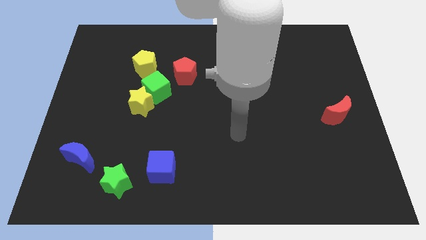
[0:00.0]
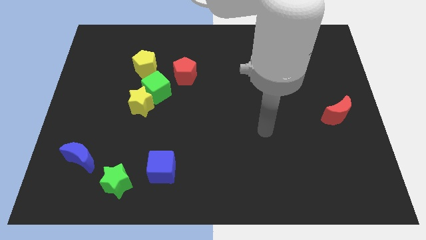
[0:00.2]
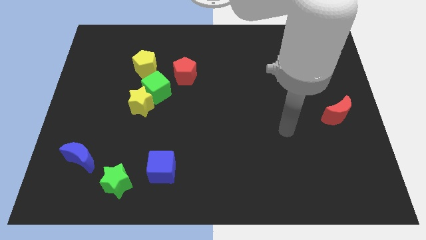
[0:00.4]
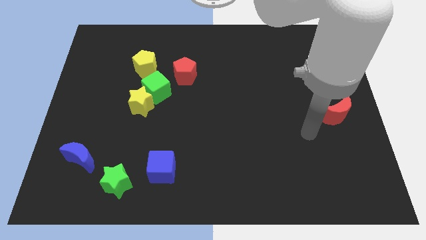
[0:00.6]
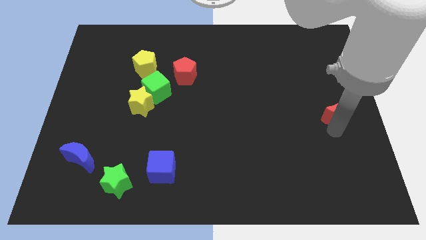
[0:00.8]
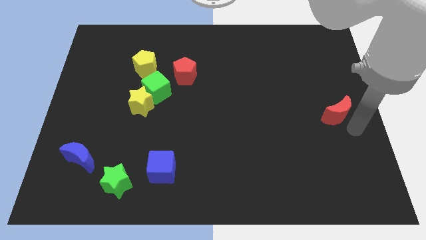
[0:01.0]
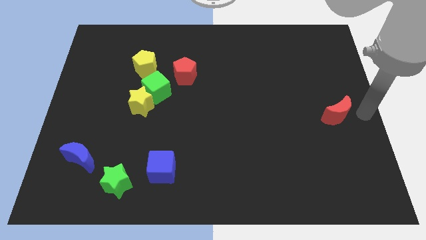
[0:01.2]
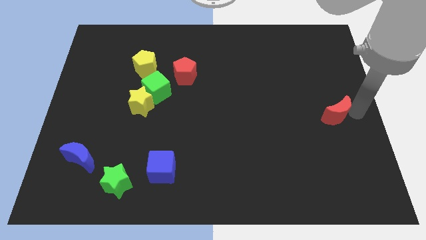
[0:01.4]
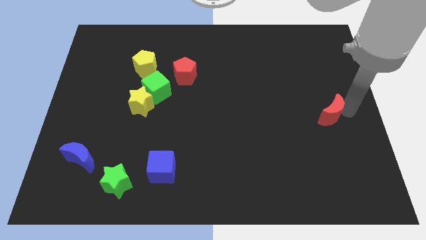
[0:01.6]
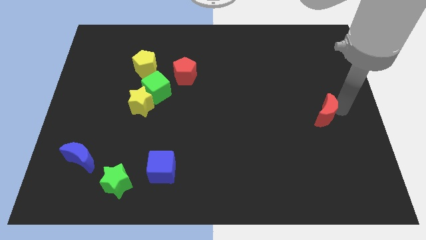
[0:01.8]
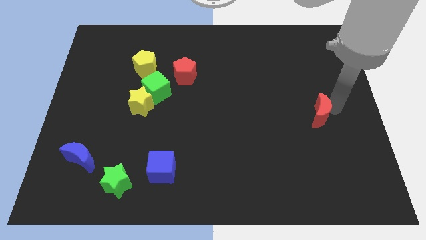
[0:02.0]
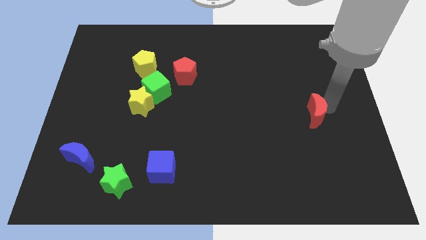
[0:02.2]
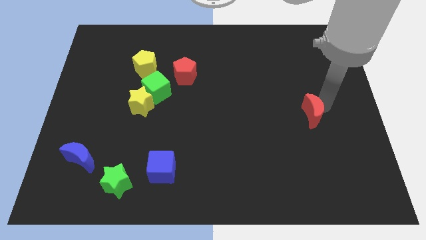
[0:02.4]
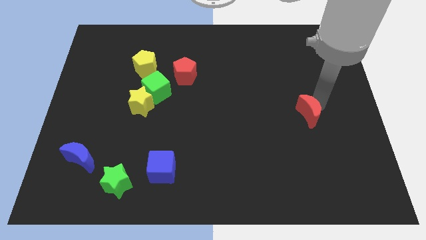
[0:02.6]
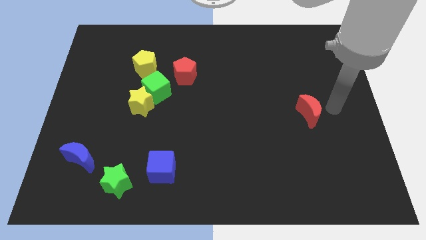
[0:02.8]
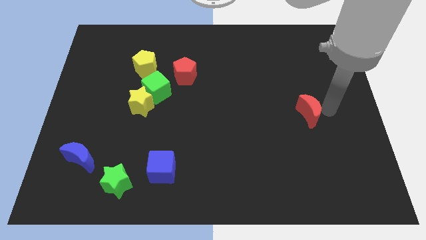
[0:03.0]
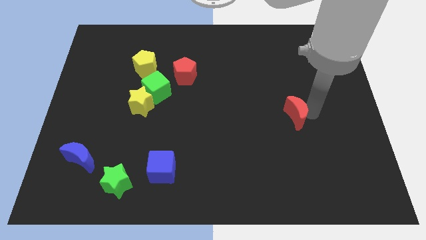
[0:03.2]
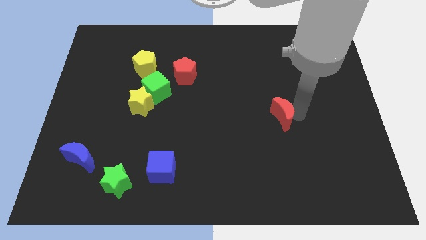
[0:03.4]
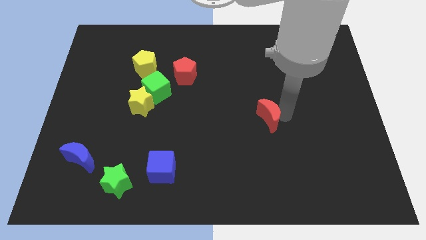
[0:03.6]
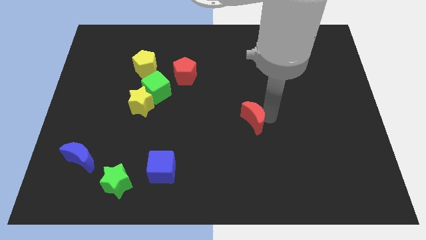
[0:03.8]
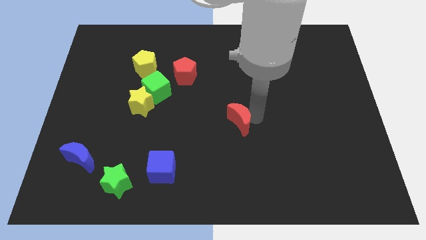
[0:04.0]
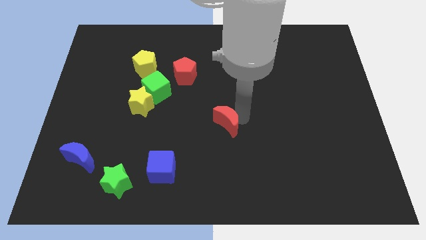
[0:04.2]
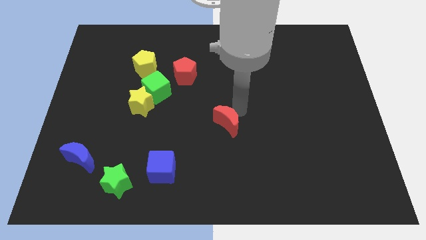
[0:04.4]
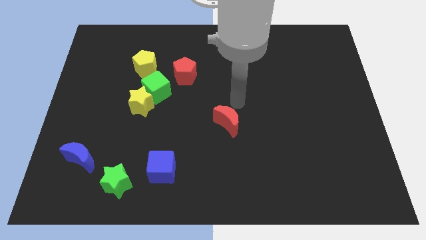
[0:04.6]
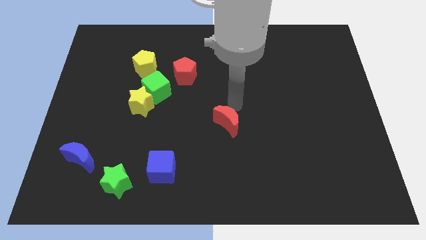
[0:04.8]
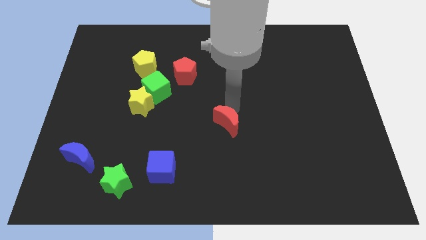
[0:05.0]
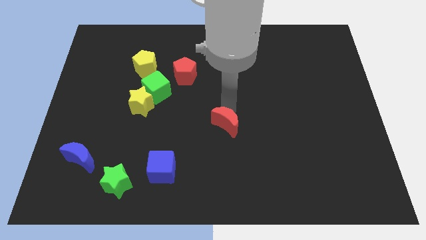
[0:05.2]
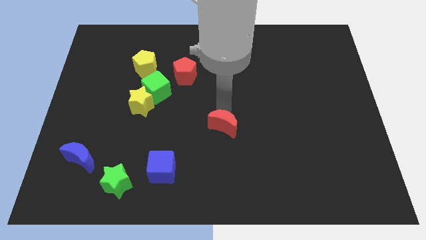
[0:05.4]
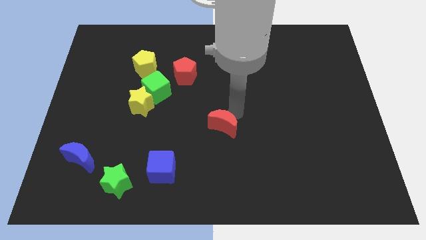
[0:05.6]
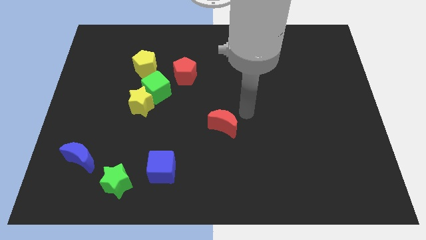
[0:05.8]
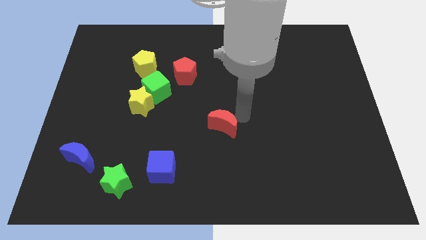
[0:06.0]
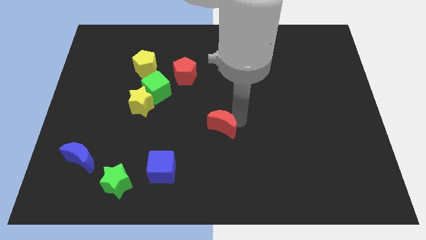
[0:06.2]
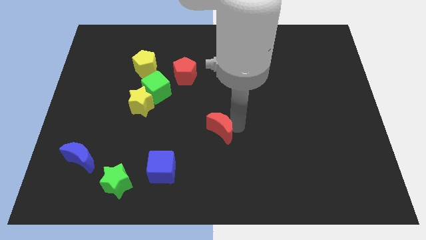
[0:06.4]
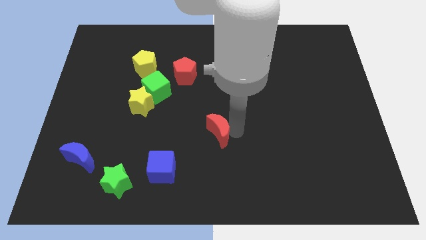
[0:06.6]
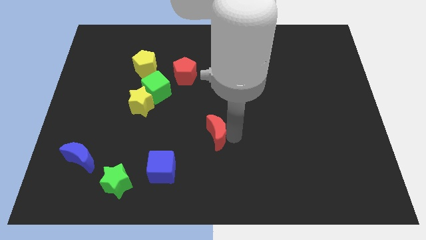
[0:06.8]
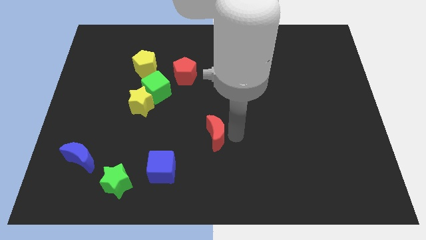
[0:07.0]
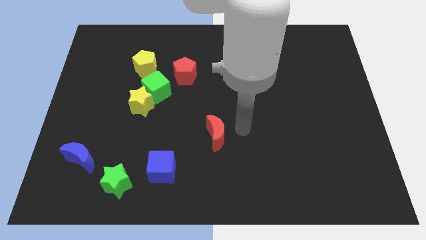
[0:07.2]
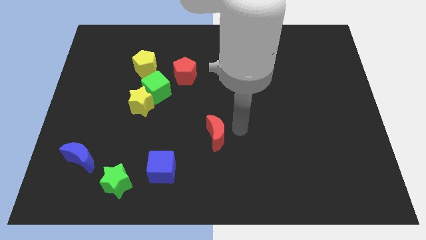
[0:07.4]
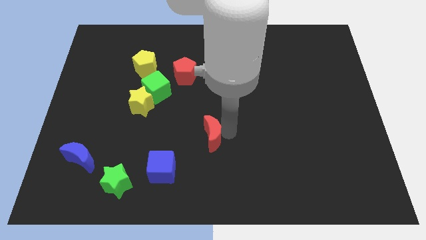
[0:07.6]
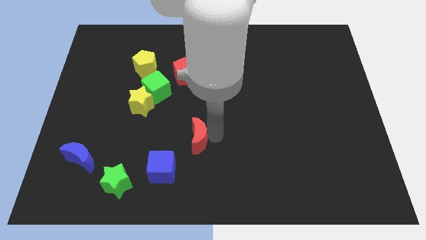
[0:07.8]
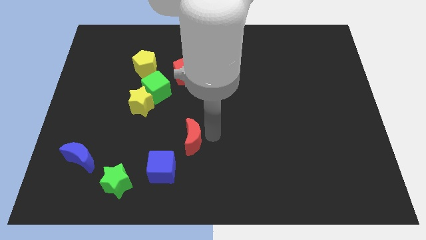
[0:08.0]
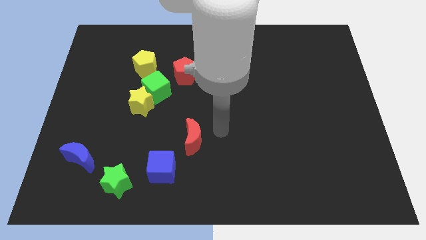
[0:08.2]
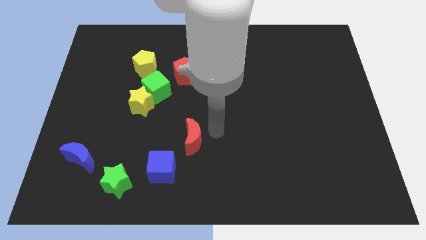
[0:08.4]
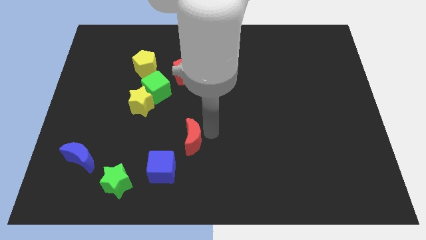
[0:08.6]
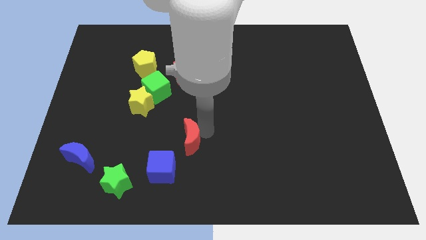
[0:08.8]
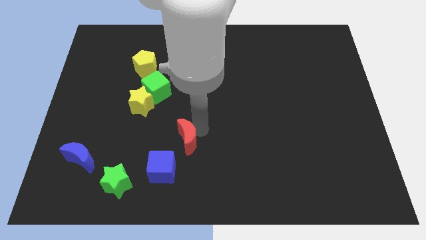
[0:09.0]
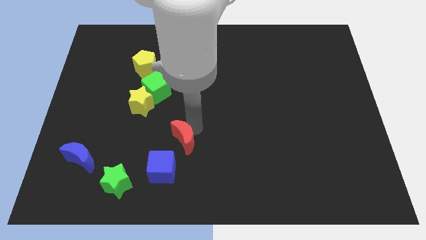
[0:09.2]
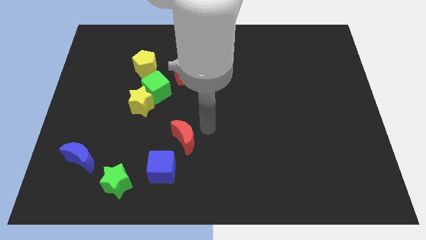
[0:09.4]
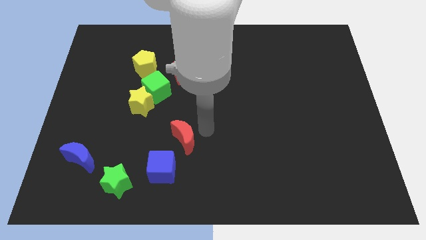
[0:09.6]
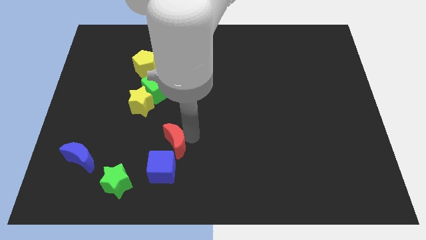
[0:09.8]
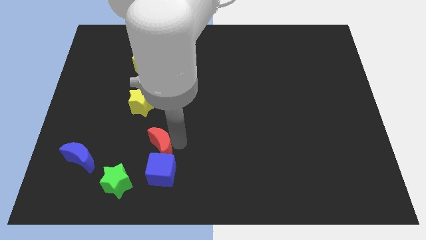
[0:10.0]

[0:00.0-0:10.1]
push the red moon diagonally up and to the left of the blue cube

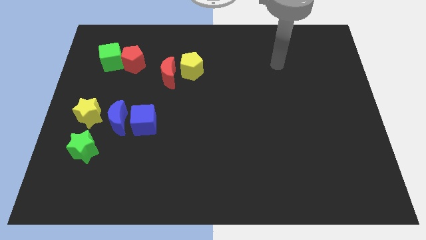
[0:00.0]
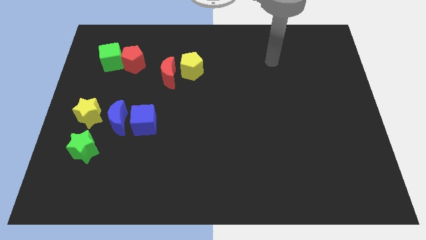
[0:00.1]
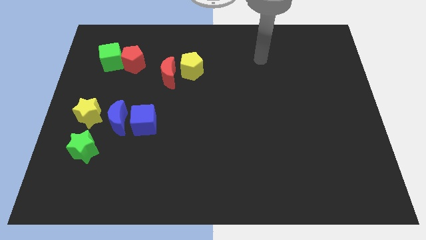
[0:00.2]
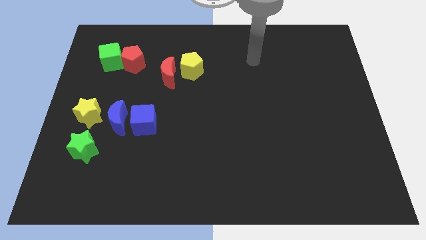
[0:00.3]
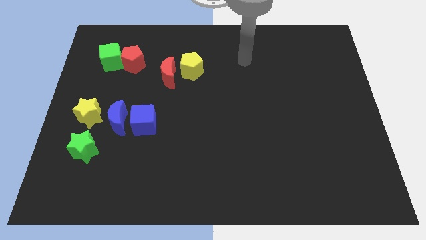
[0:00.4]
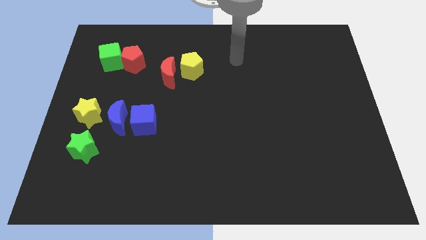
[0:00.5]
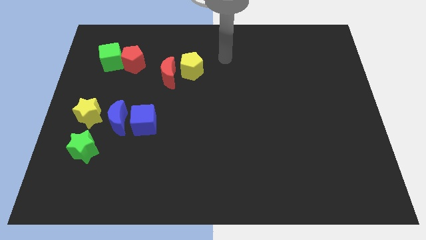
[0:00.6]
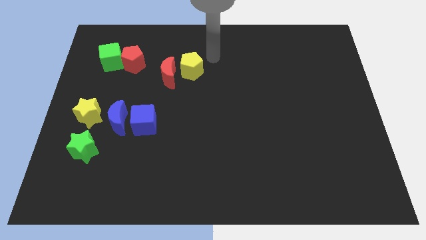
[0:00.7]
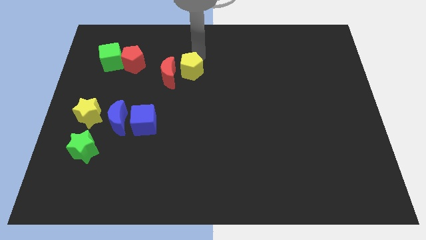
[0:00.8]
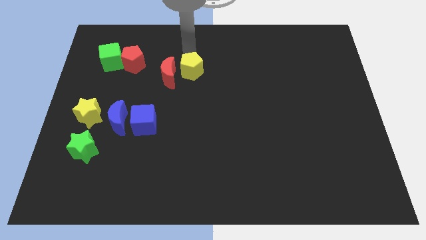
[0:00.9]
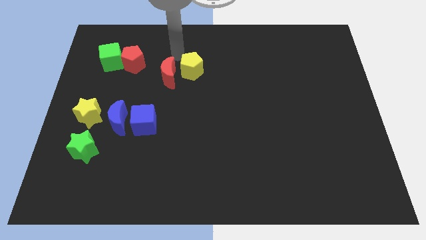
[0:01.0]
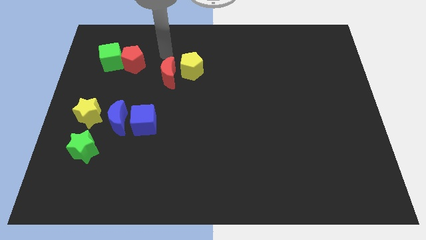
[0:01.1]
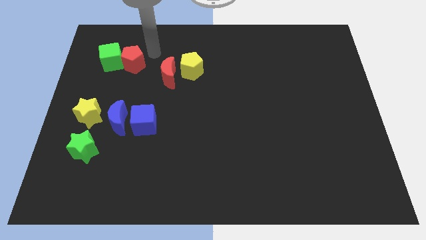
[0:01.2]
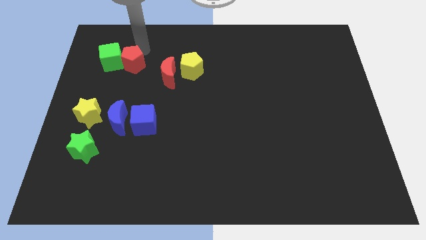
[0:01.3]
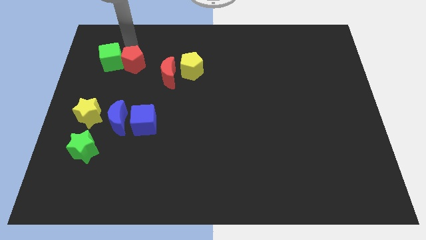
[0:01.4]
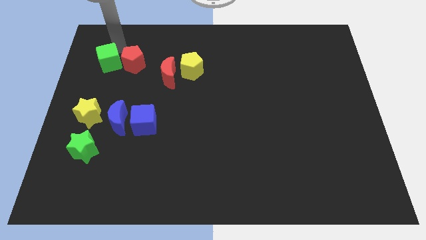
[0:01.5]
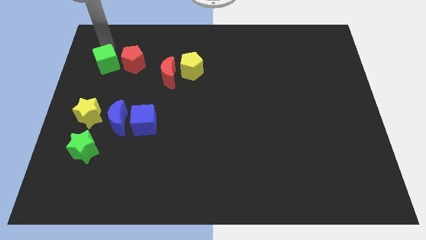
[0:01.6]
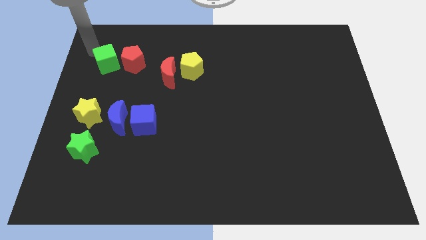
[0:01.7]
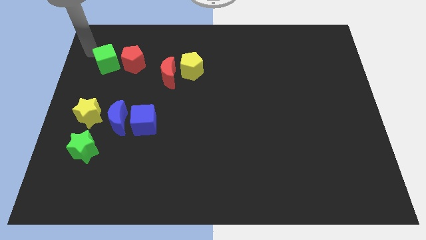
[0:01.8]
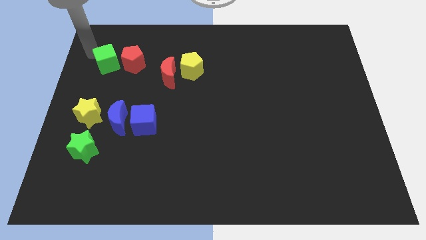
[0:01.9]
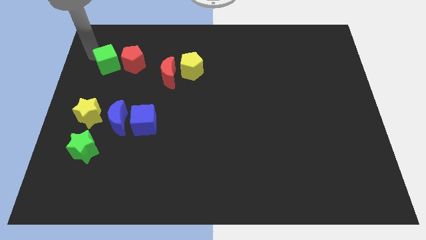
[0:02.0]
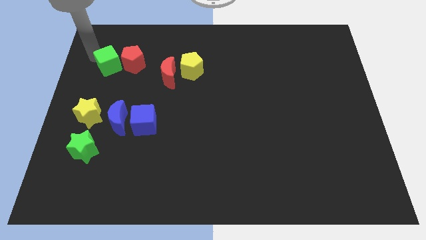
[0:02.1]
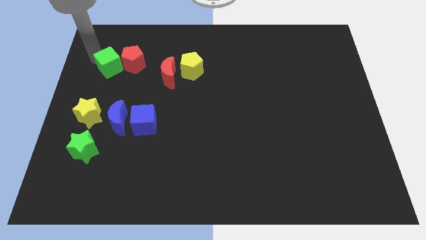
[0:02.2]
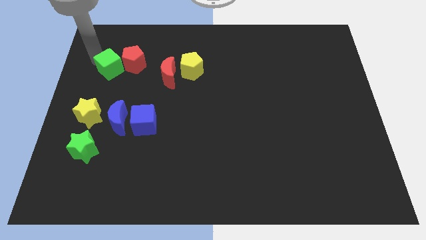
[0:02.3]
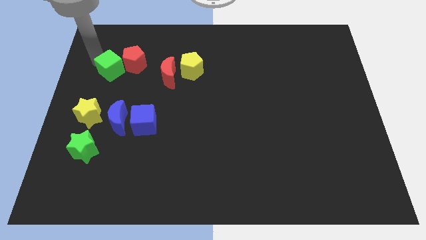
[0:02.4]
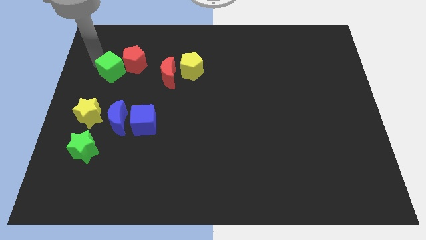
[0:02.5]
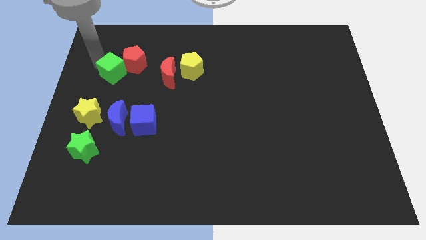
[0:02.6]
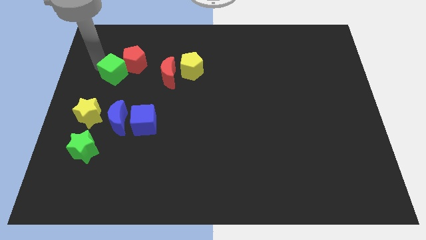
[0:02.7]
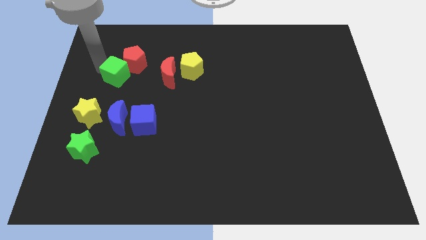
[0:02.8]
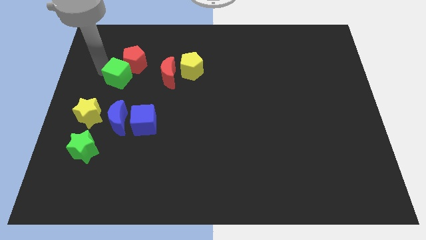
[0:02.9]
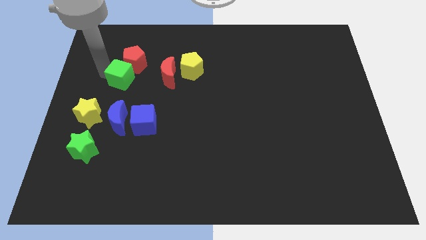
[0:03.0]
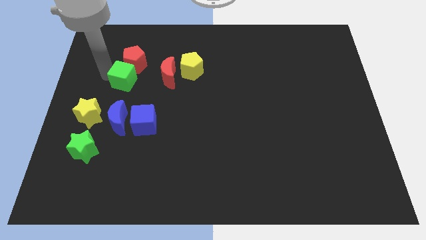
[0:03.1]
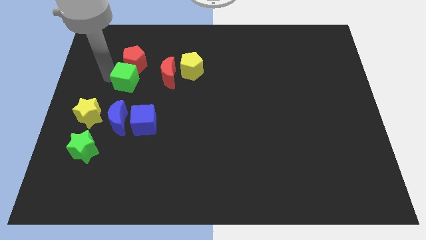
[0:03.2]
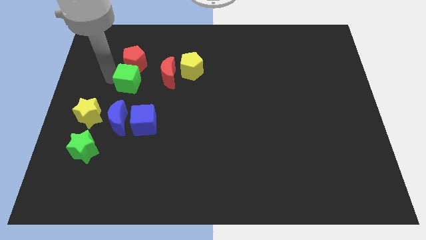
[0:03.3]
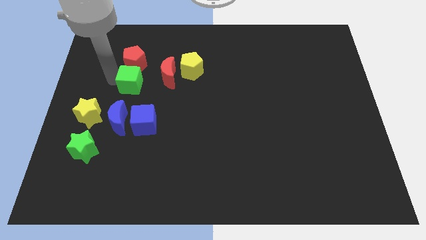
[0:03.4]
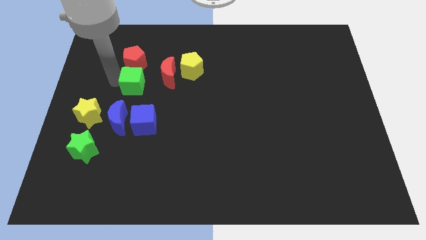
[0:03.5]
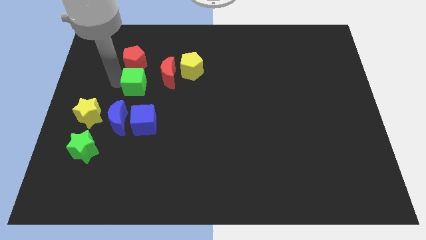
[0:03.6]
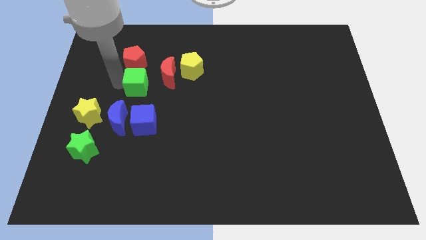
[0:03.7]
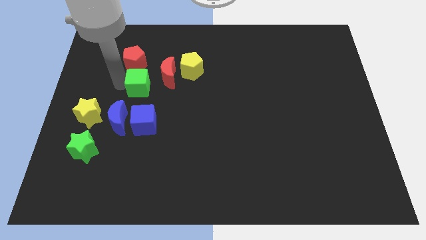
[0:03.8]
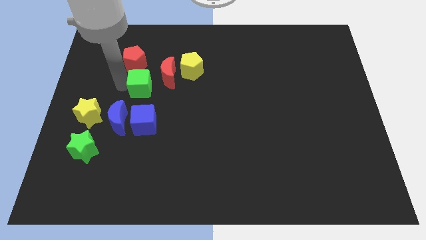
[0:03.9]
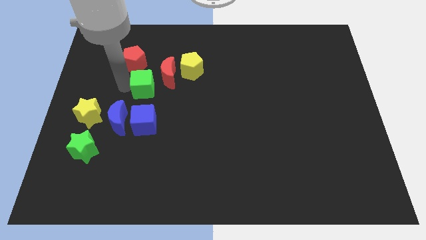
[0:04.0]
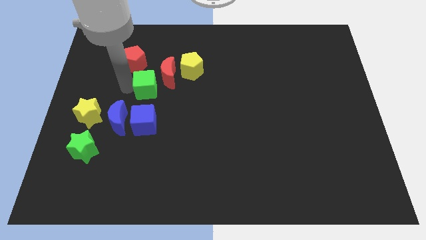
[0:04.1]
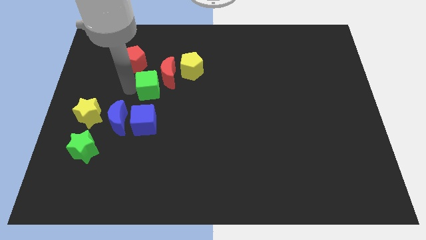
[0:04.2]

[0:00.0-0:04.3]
slide the green cube diagonally down and to the left of the yellow pentagon
